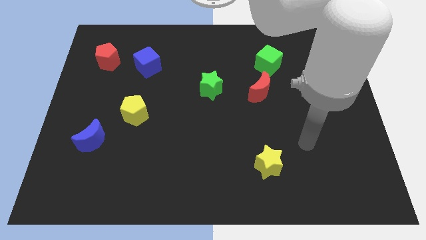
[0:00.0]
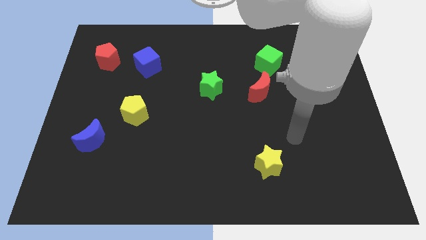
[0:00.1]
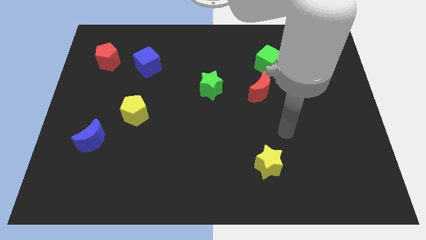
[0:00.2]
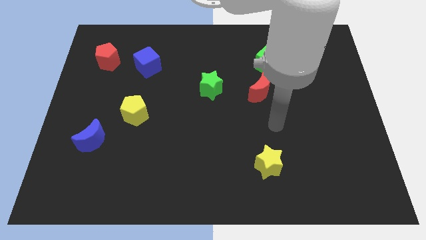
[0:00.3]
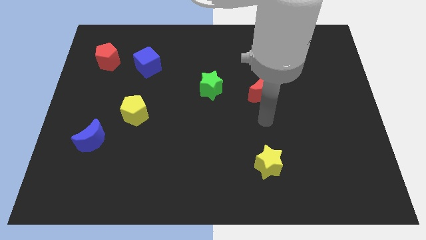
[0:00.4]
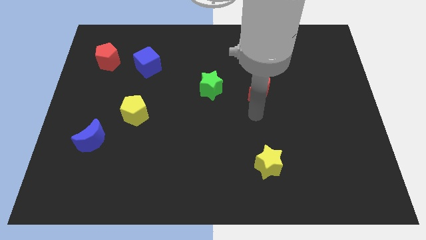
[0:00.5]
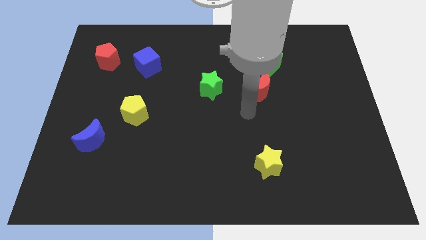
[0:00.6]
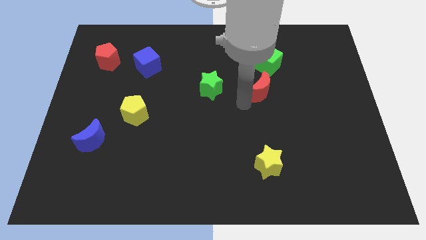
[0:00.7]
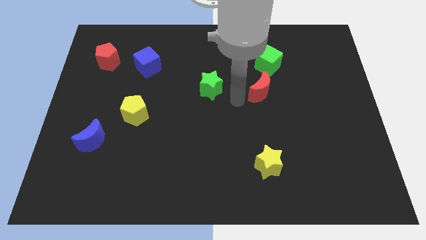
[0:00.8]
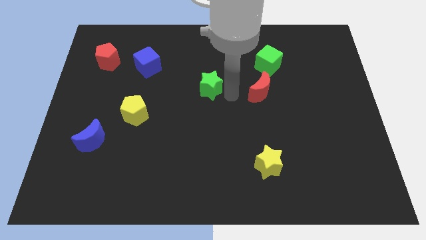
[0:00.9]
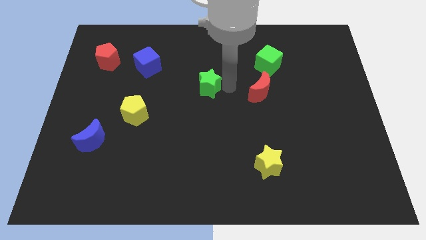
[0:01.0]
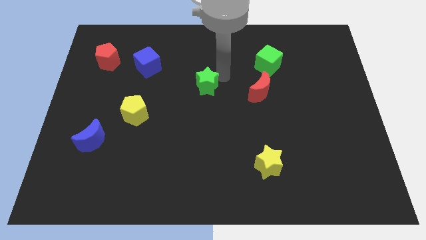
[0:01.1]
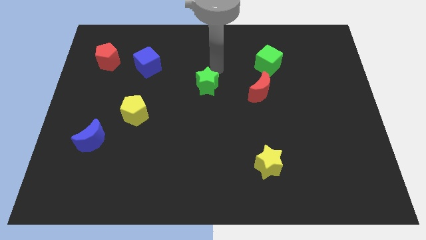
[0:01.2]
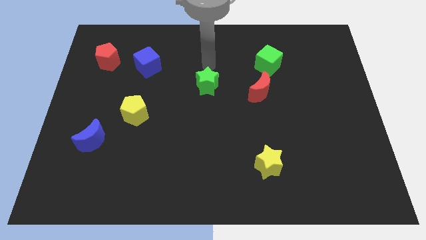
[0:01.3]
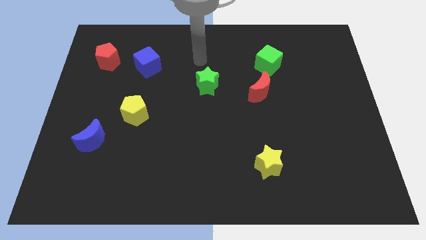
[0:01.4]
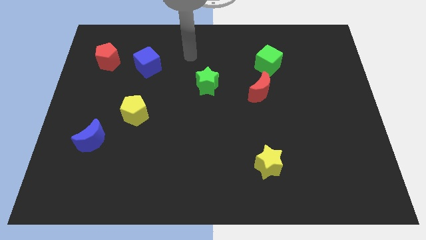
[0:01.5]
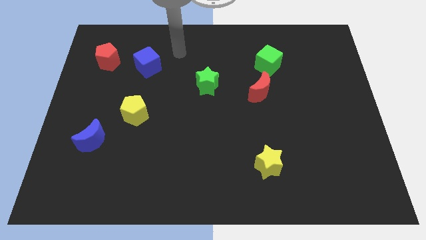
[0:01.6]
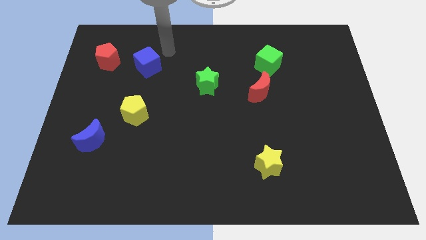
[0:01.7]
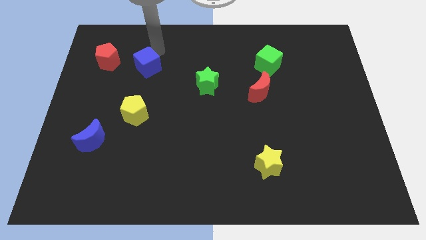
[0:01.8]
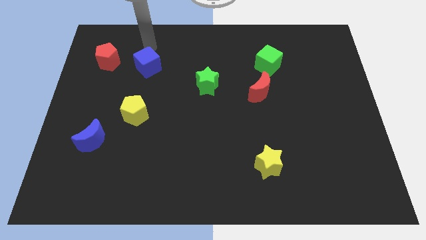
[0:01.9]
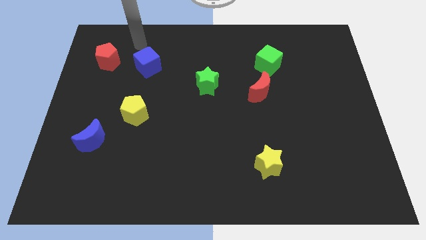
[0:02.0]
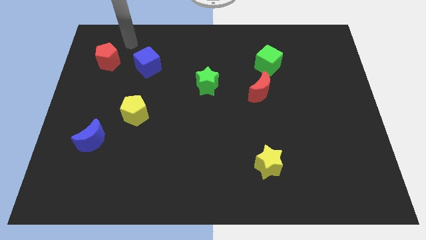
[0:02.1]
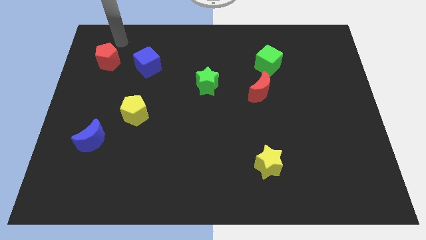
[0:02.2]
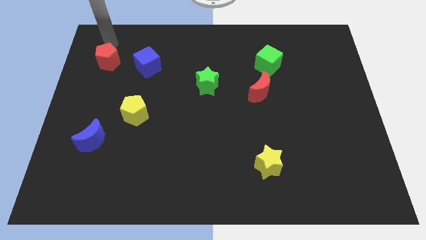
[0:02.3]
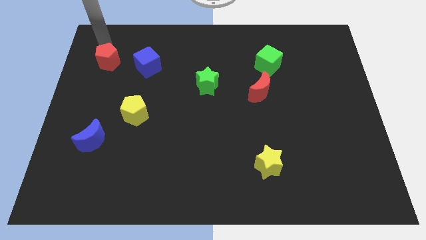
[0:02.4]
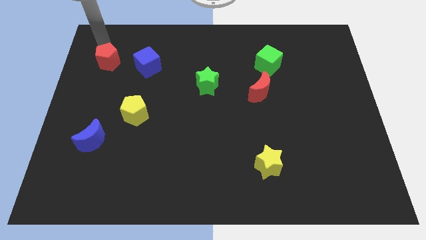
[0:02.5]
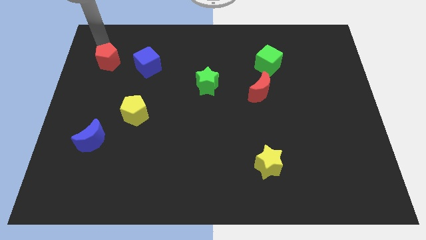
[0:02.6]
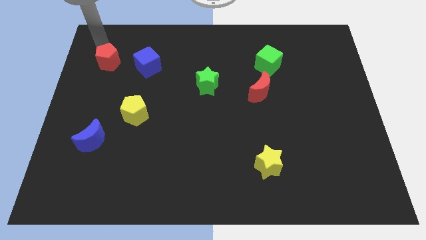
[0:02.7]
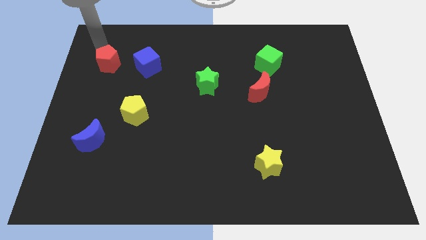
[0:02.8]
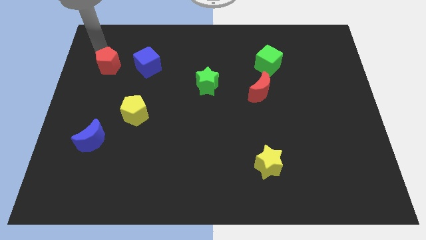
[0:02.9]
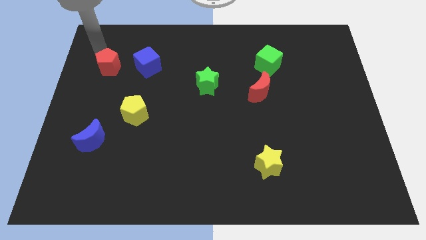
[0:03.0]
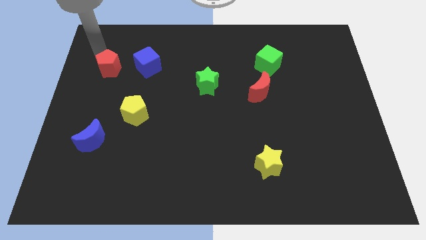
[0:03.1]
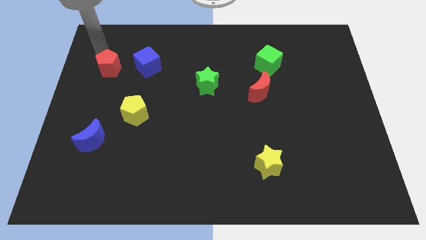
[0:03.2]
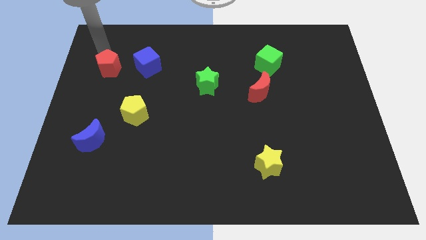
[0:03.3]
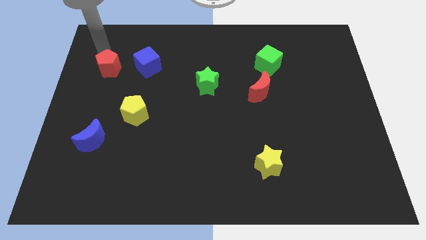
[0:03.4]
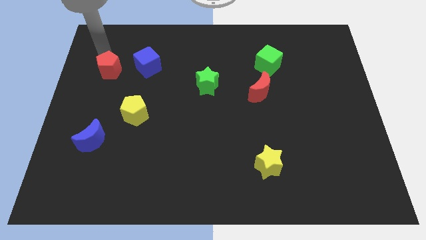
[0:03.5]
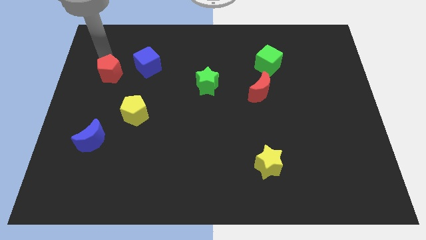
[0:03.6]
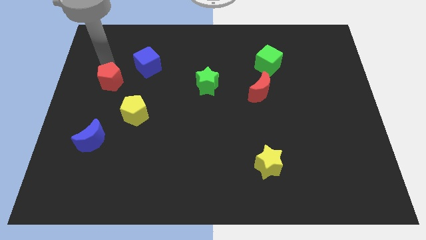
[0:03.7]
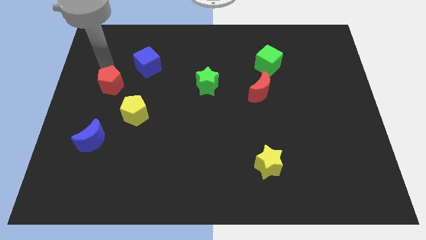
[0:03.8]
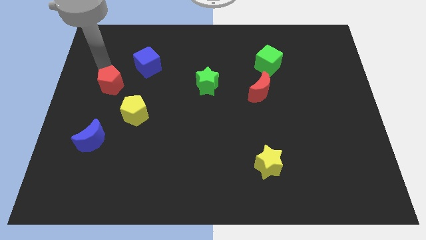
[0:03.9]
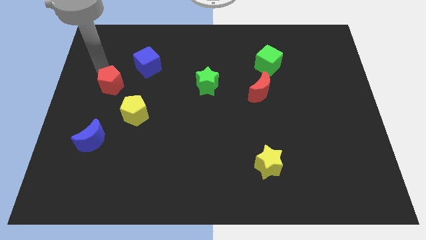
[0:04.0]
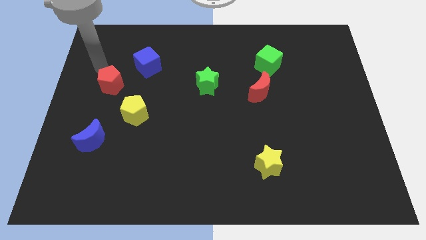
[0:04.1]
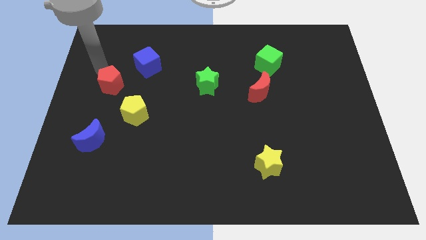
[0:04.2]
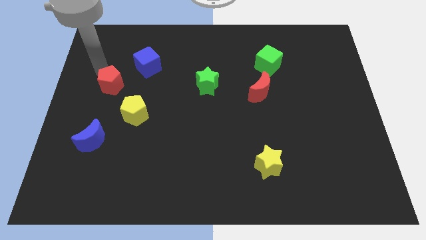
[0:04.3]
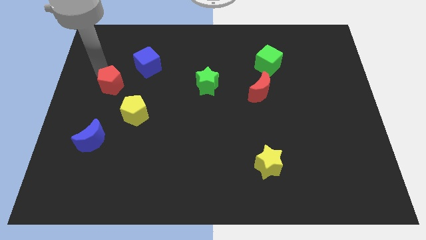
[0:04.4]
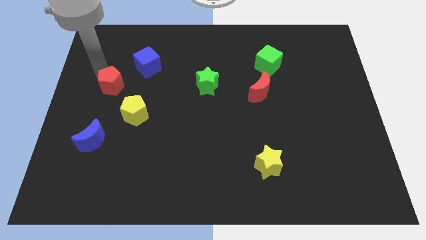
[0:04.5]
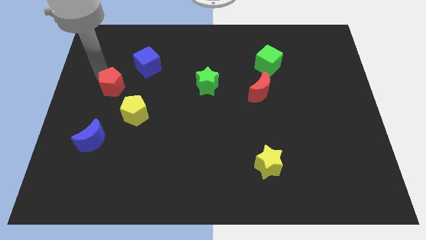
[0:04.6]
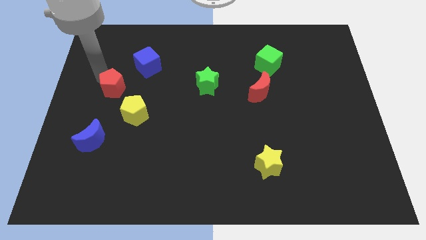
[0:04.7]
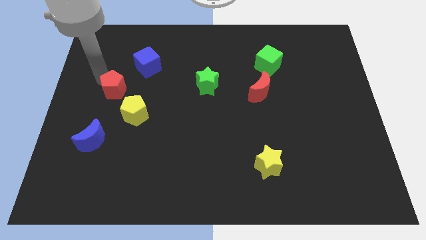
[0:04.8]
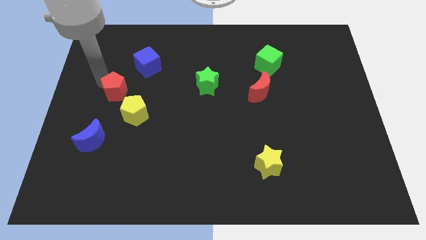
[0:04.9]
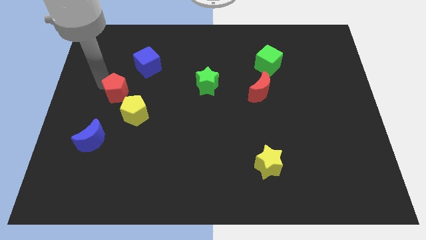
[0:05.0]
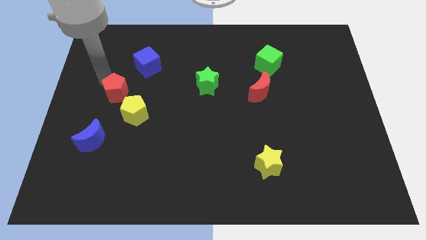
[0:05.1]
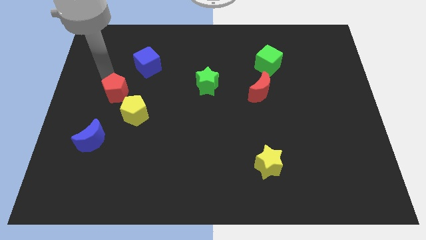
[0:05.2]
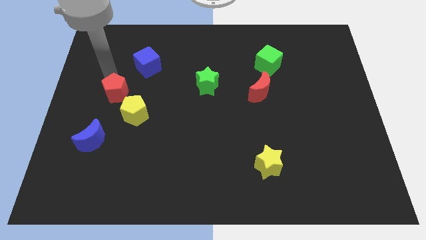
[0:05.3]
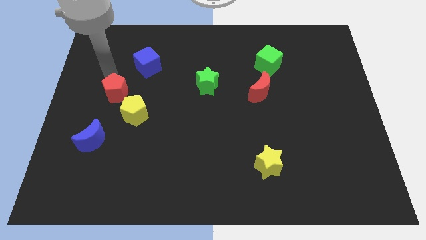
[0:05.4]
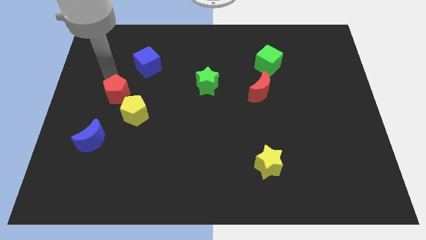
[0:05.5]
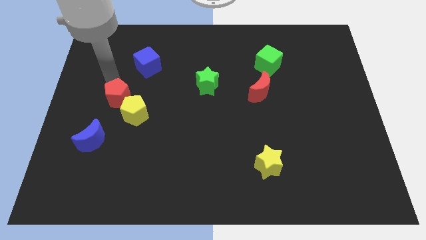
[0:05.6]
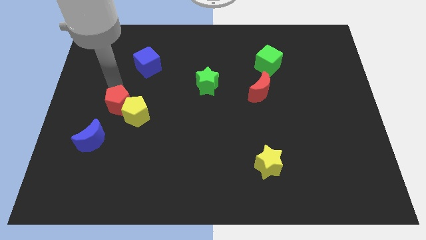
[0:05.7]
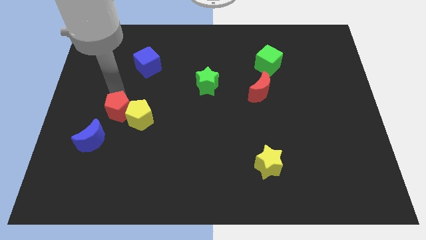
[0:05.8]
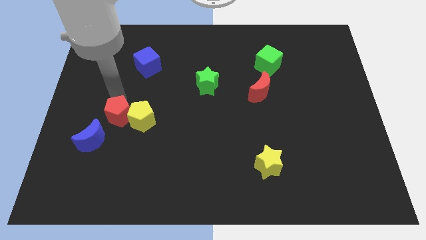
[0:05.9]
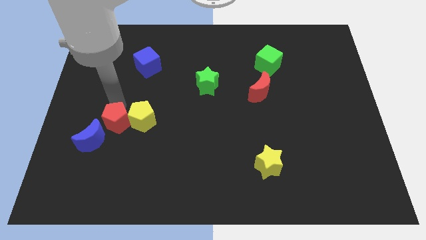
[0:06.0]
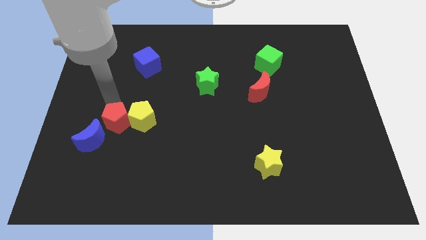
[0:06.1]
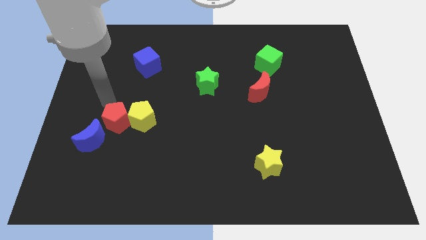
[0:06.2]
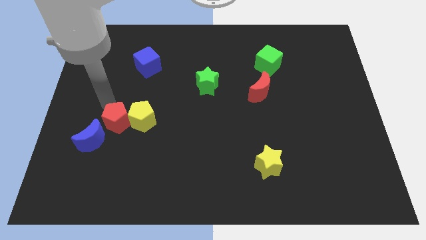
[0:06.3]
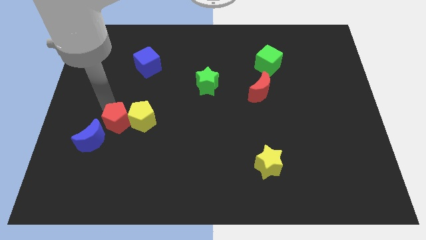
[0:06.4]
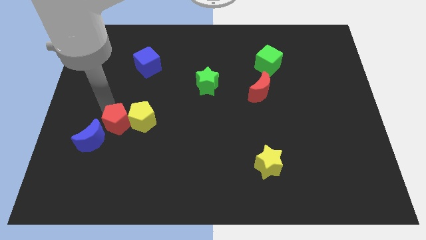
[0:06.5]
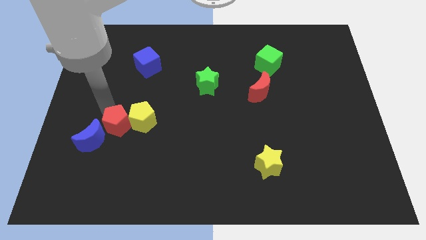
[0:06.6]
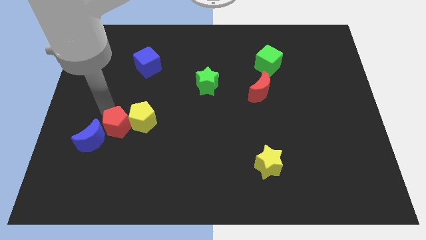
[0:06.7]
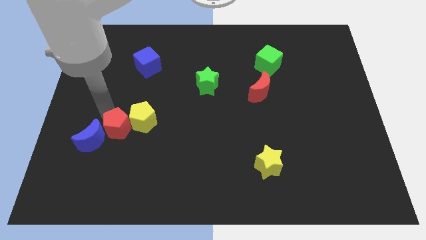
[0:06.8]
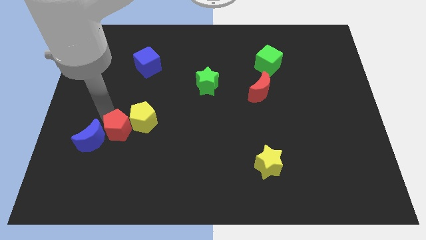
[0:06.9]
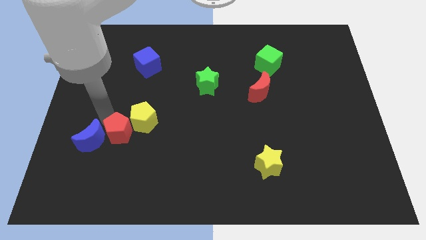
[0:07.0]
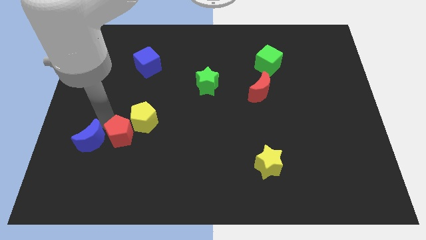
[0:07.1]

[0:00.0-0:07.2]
move the red pentagon to the bottom side of the yellow pentagon
